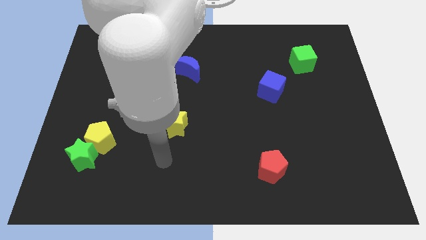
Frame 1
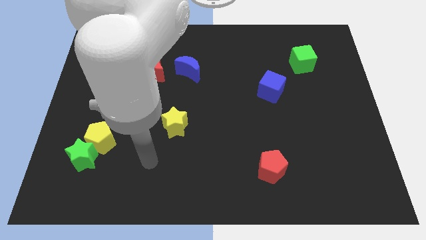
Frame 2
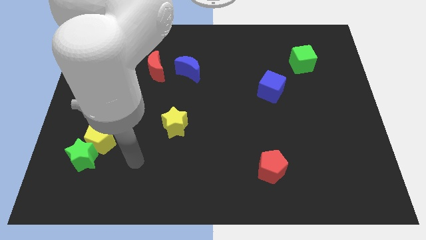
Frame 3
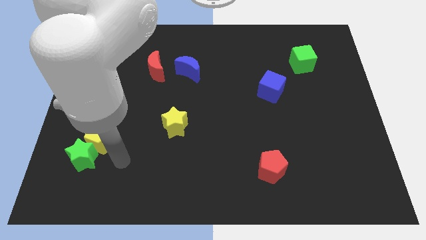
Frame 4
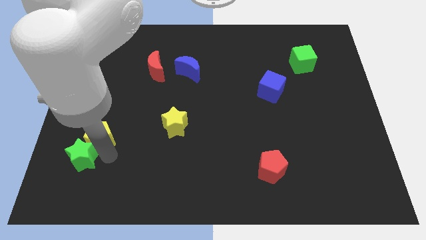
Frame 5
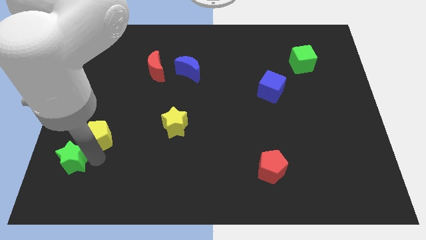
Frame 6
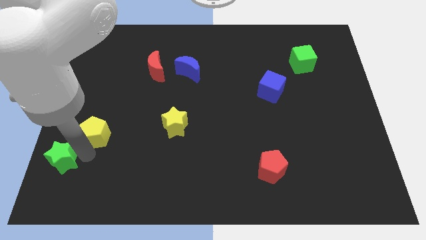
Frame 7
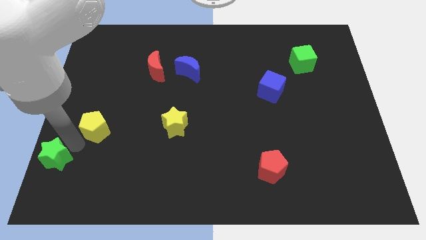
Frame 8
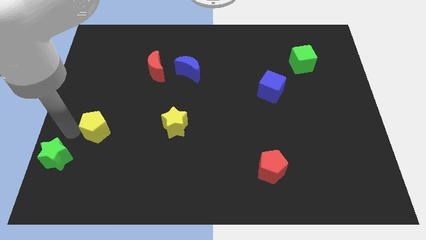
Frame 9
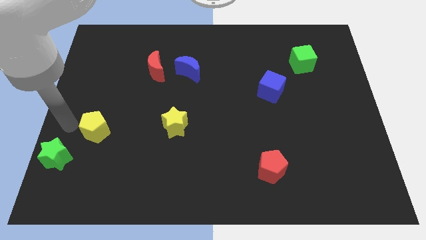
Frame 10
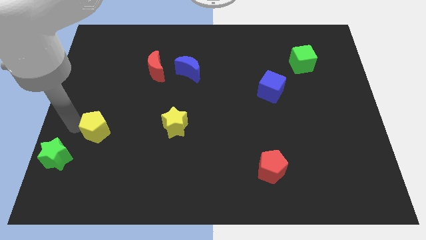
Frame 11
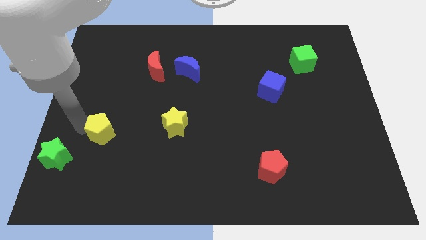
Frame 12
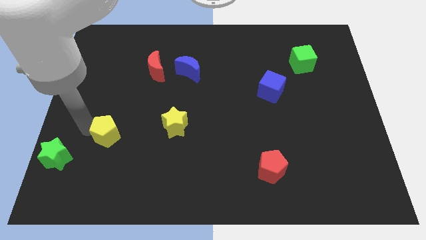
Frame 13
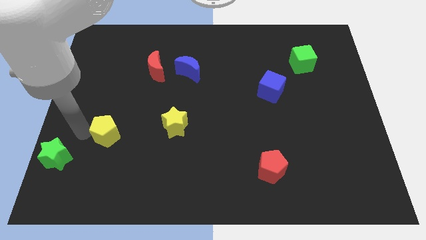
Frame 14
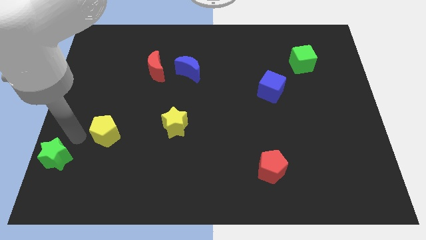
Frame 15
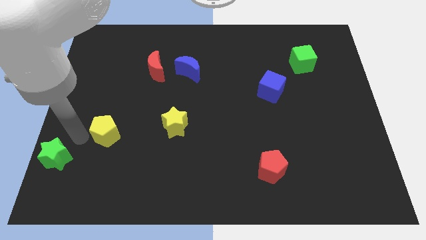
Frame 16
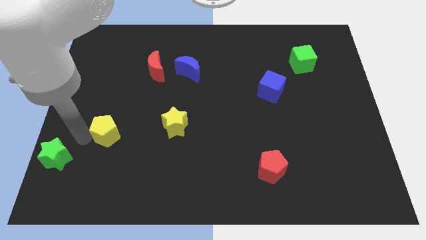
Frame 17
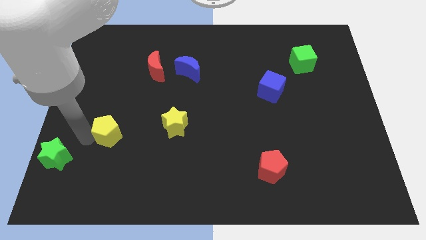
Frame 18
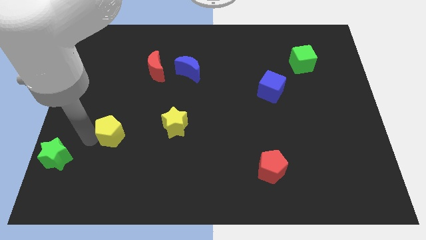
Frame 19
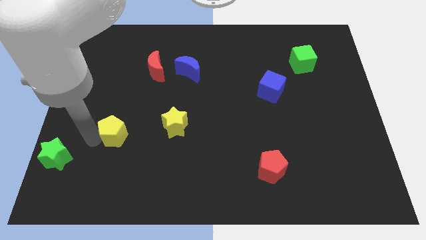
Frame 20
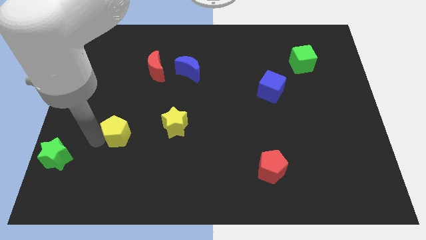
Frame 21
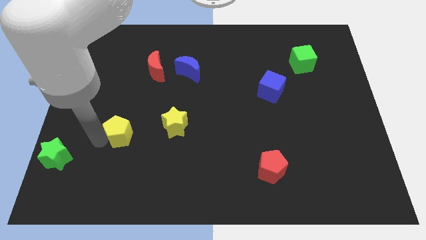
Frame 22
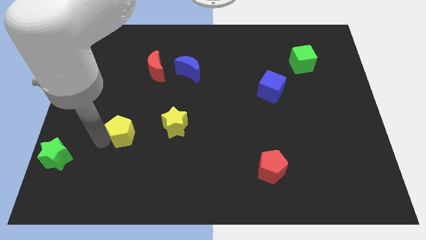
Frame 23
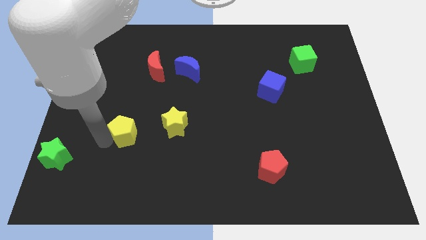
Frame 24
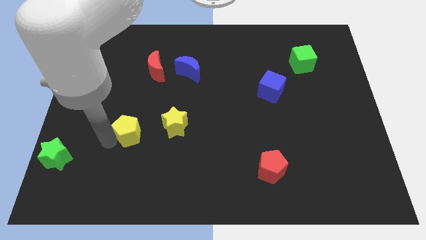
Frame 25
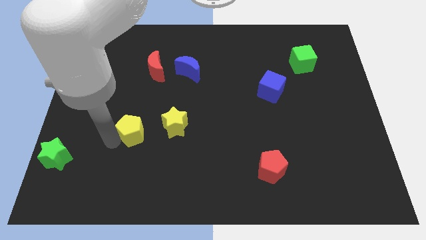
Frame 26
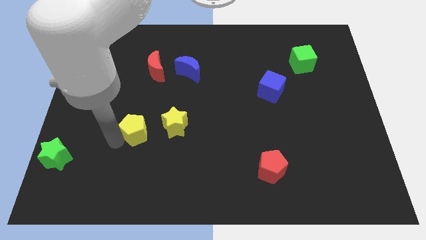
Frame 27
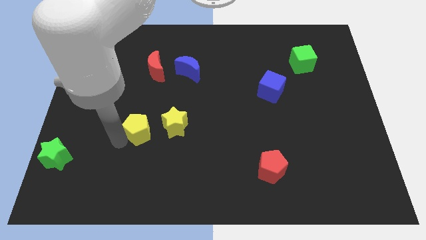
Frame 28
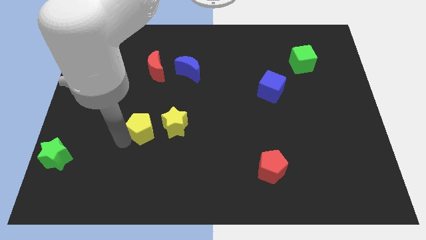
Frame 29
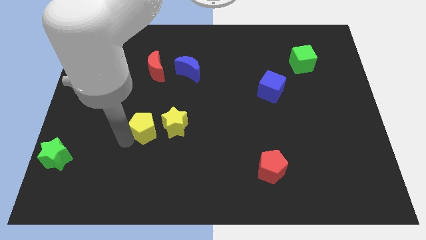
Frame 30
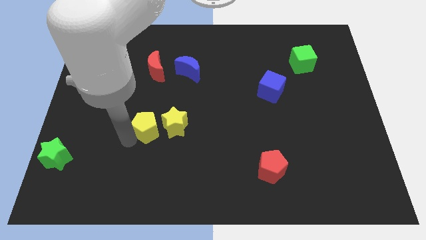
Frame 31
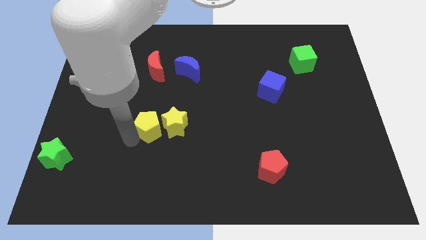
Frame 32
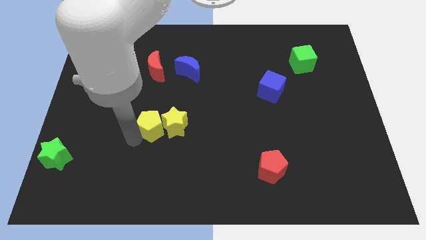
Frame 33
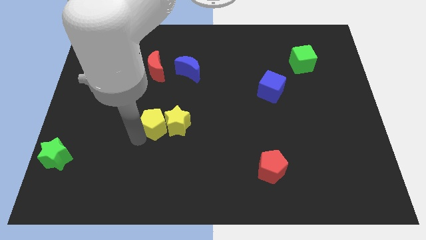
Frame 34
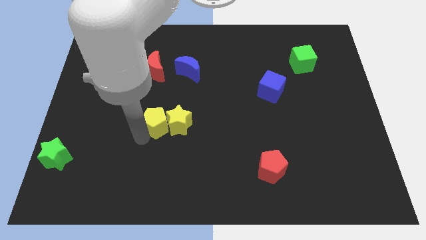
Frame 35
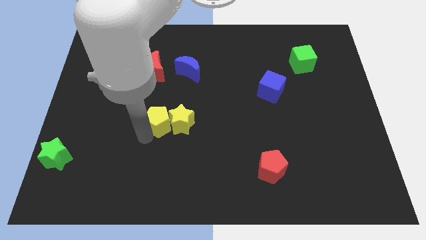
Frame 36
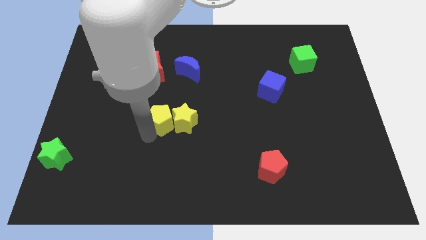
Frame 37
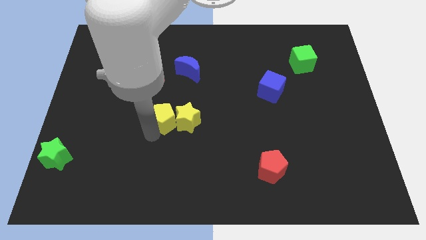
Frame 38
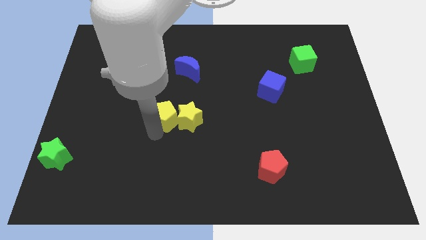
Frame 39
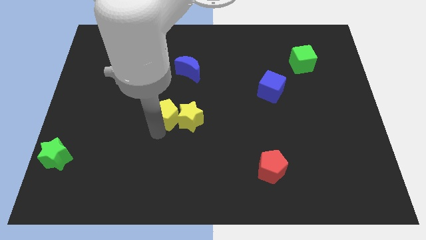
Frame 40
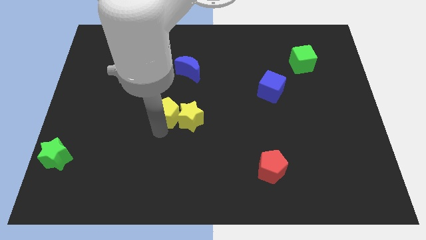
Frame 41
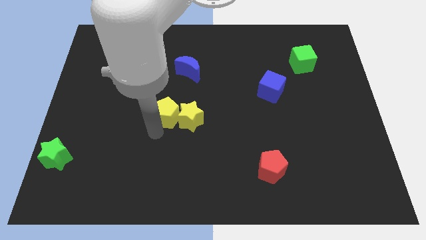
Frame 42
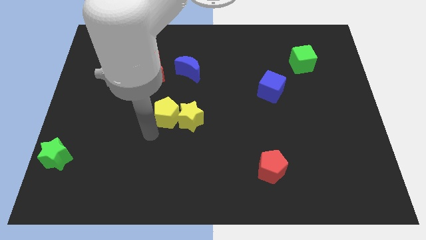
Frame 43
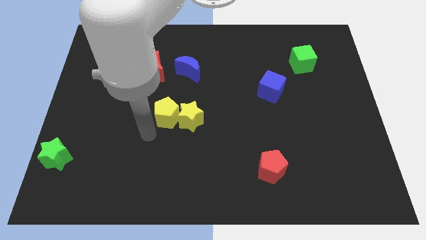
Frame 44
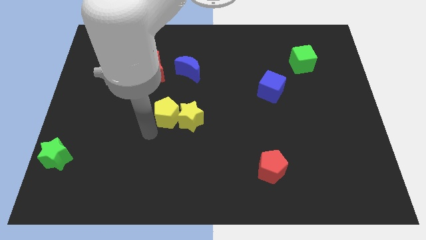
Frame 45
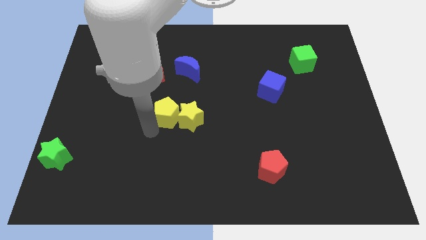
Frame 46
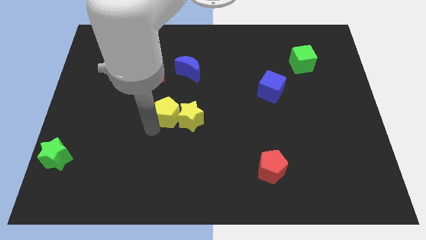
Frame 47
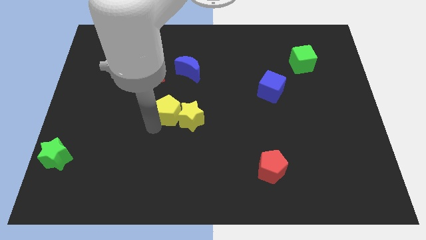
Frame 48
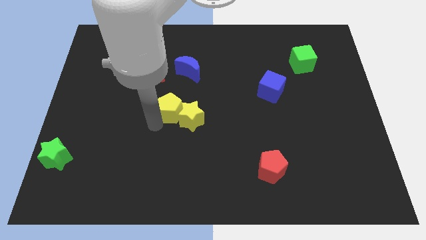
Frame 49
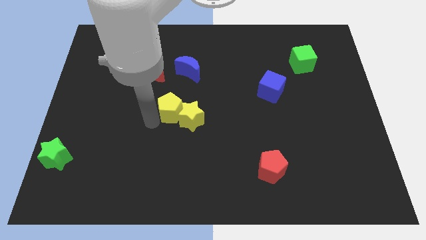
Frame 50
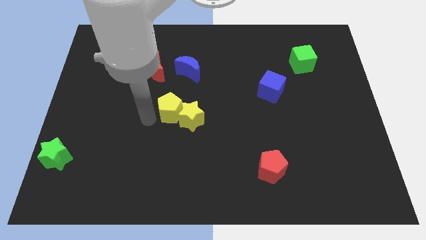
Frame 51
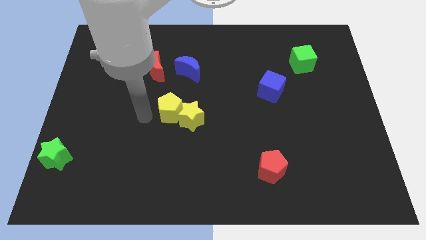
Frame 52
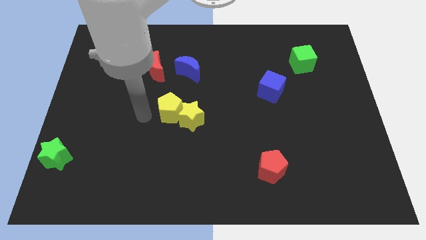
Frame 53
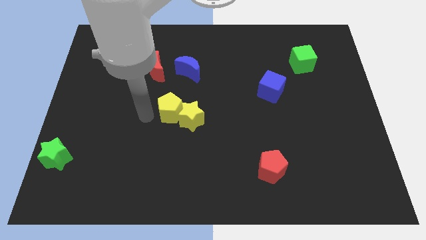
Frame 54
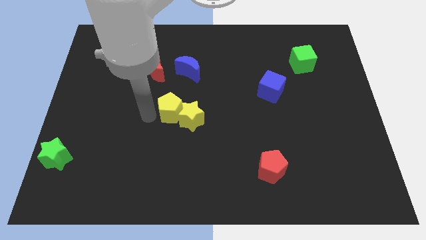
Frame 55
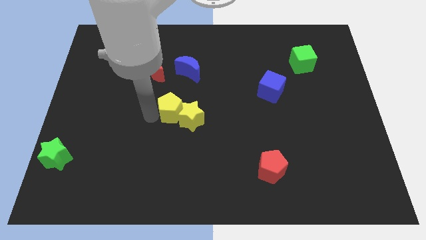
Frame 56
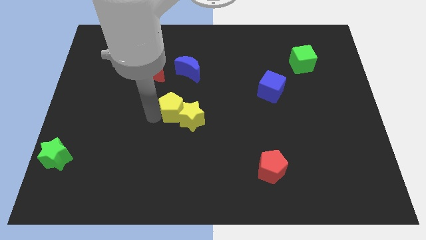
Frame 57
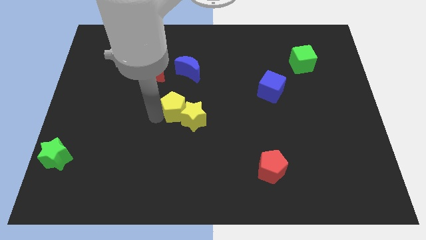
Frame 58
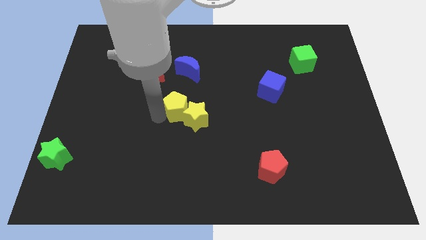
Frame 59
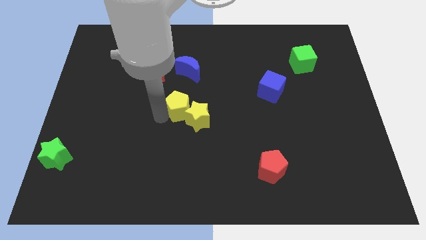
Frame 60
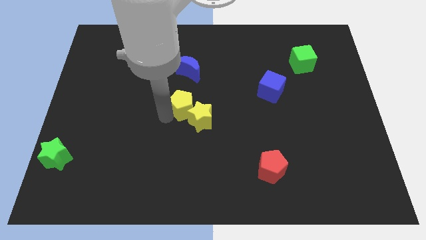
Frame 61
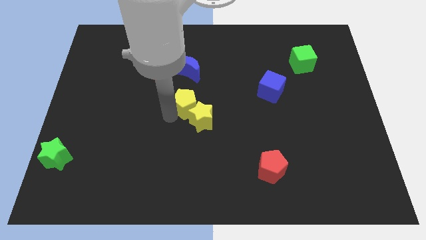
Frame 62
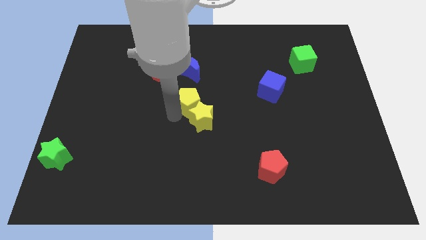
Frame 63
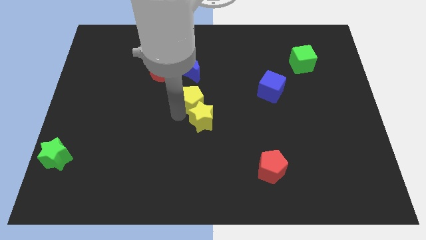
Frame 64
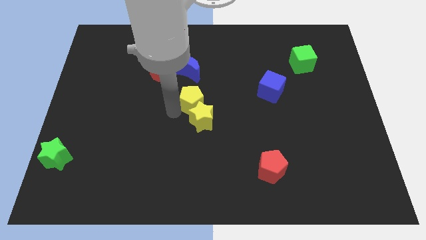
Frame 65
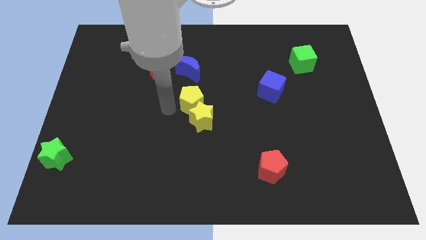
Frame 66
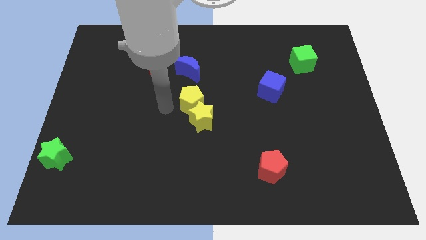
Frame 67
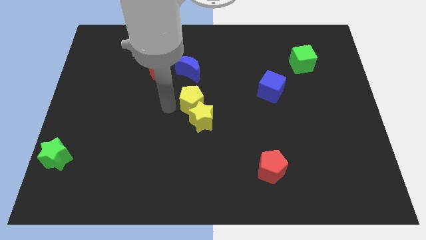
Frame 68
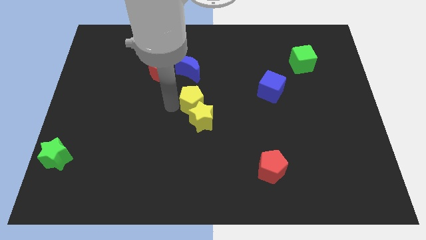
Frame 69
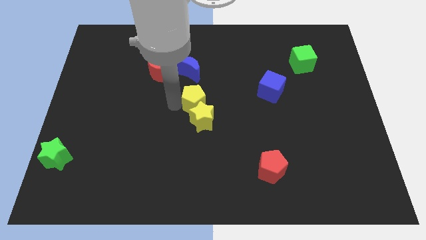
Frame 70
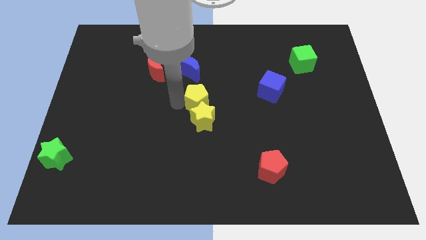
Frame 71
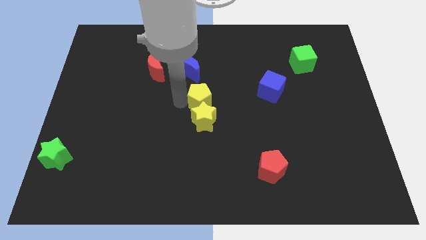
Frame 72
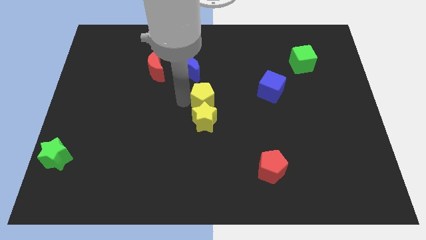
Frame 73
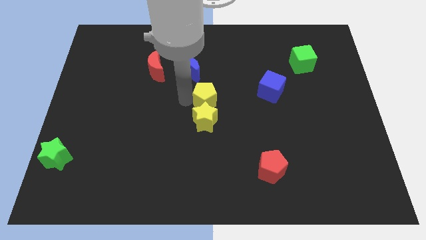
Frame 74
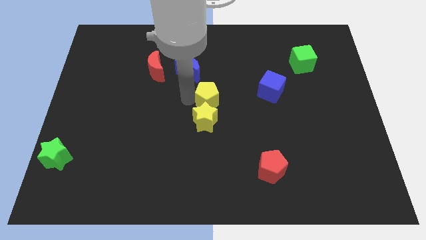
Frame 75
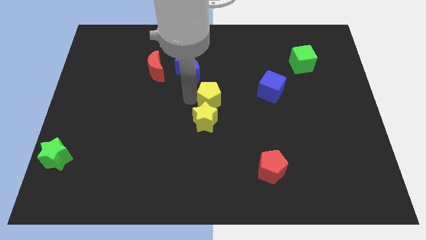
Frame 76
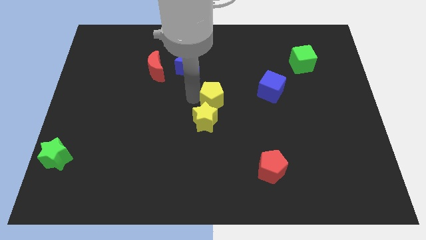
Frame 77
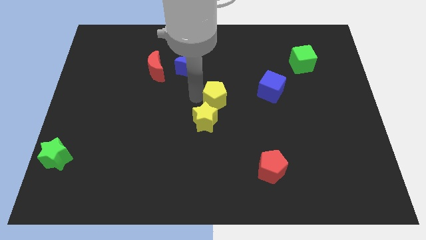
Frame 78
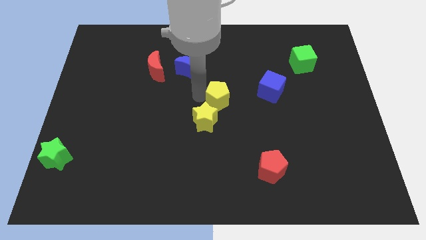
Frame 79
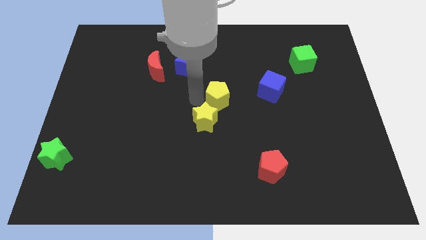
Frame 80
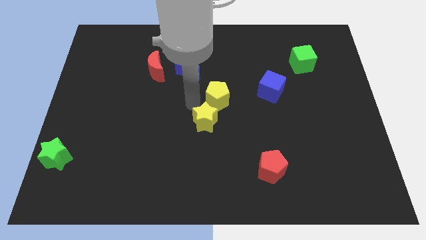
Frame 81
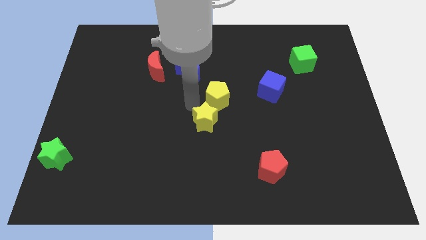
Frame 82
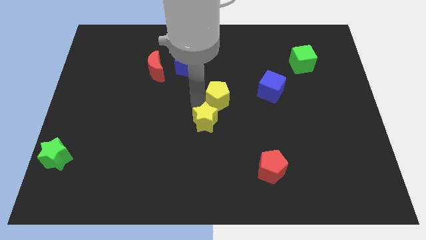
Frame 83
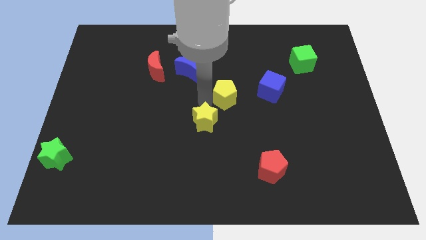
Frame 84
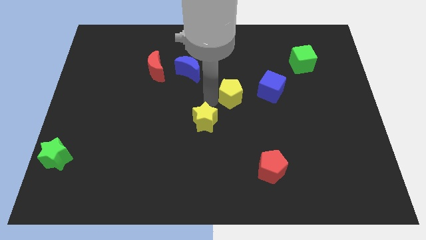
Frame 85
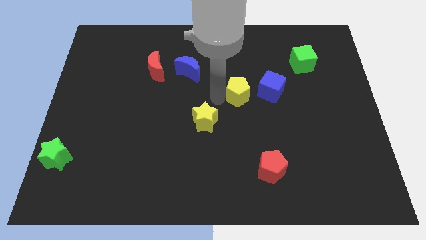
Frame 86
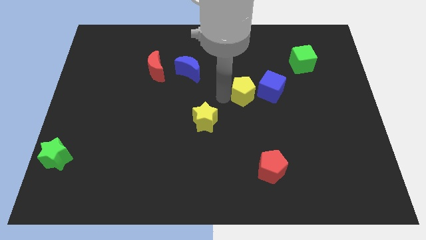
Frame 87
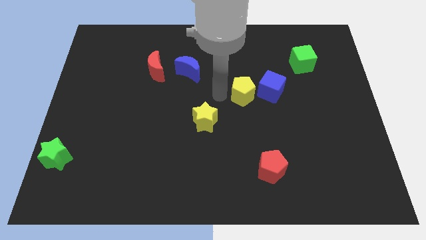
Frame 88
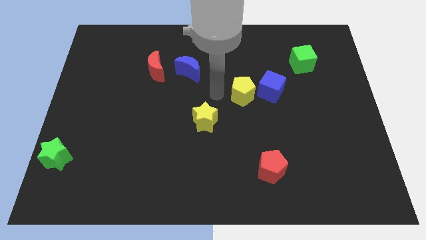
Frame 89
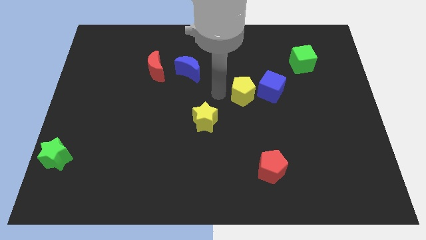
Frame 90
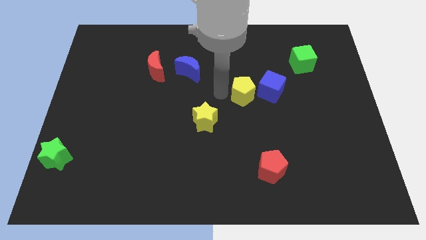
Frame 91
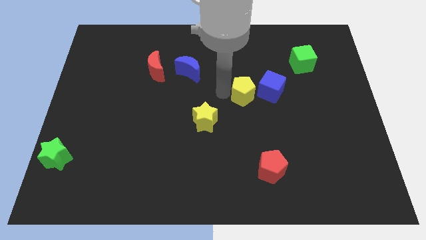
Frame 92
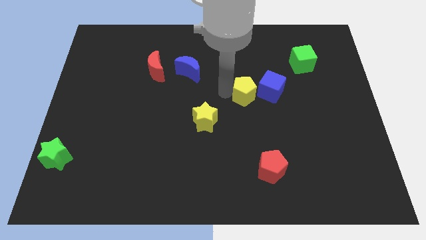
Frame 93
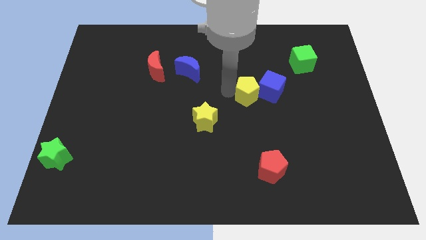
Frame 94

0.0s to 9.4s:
move the yellow pentagon next to the blue cube
